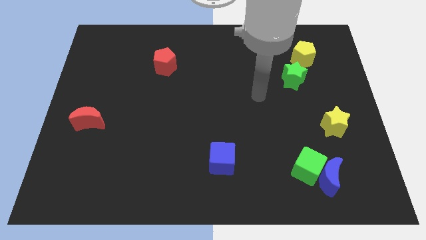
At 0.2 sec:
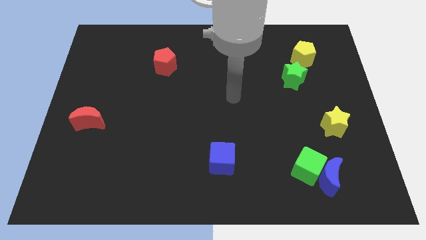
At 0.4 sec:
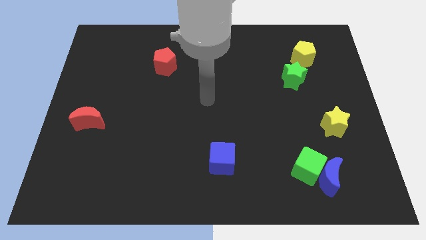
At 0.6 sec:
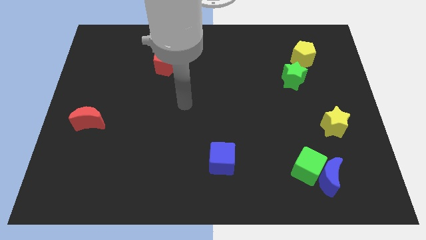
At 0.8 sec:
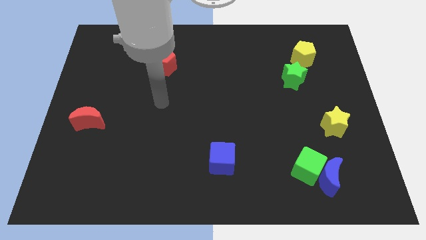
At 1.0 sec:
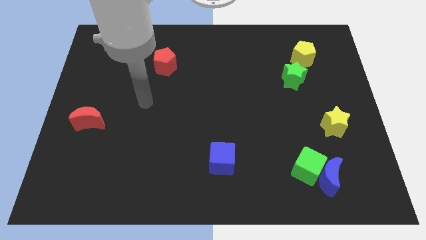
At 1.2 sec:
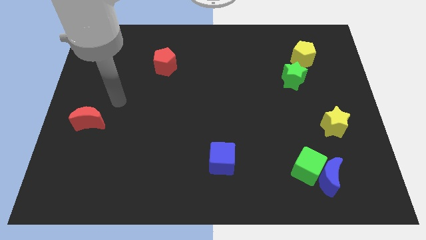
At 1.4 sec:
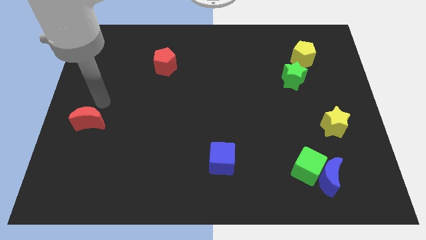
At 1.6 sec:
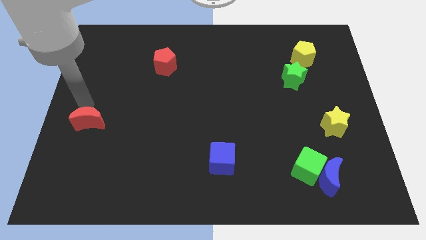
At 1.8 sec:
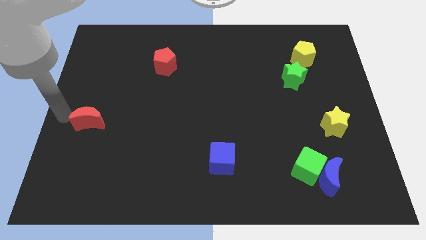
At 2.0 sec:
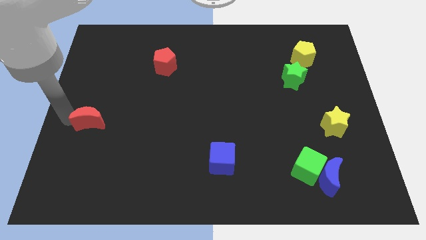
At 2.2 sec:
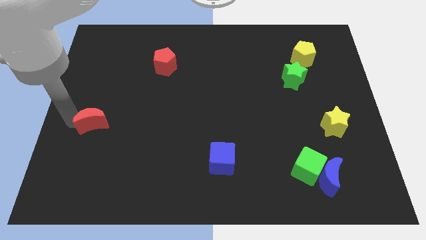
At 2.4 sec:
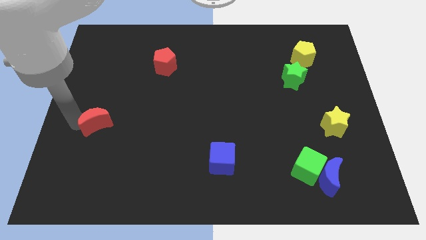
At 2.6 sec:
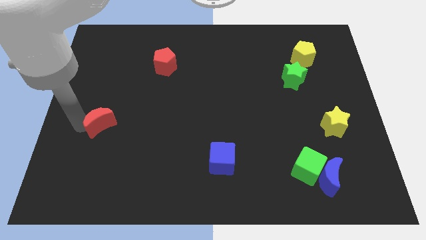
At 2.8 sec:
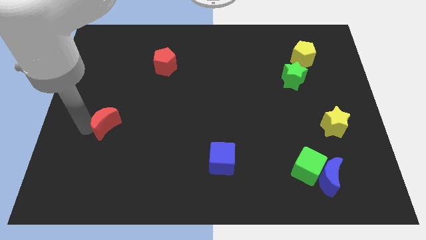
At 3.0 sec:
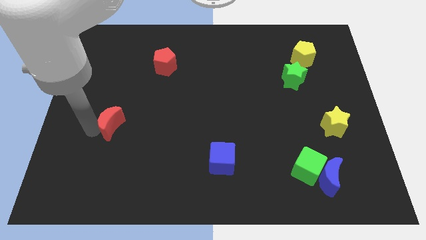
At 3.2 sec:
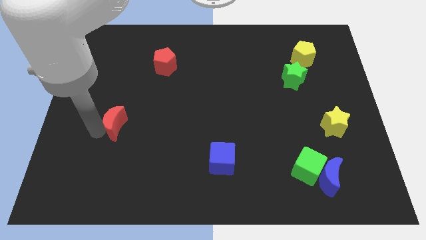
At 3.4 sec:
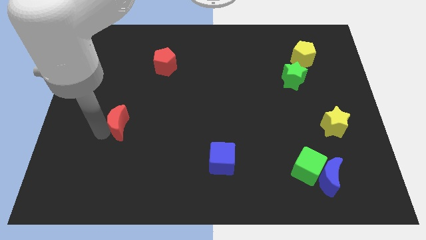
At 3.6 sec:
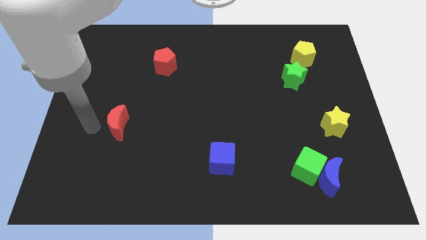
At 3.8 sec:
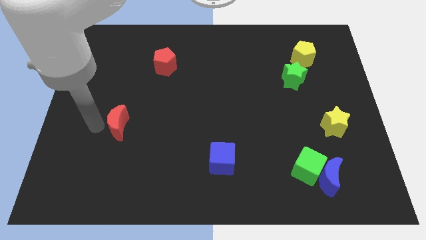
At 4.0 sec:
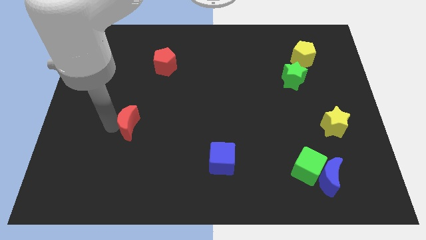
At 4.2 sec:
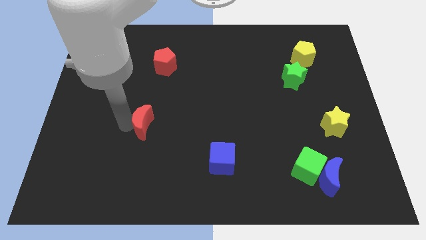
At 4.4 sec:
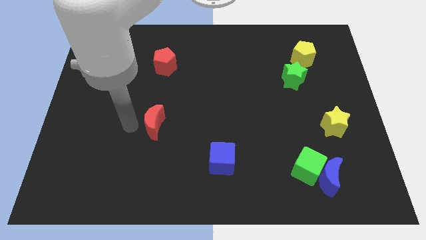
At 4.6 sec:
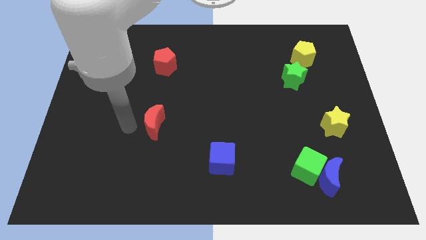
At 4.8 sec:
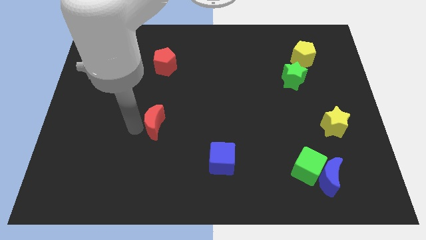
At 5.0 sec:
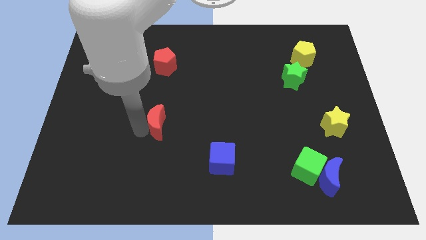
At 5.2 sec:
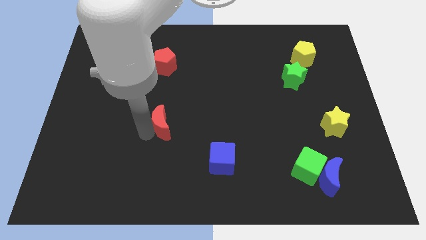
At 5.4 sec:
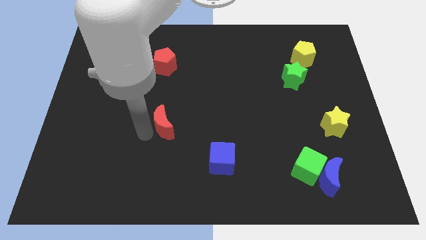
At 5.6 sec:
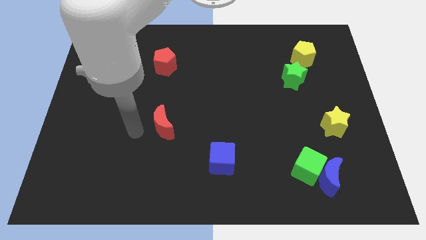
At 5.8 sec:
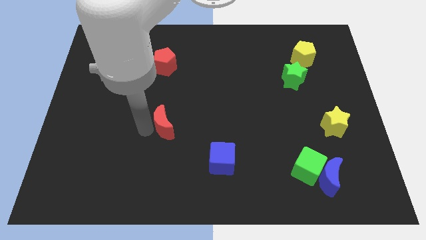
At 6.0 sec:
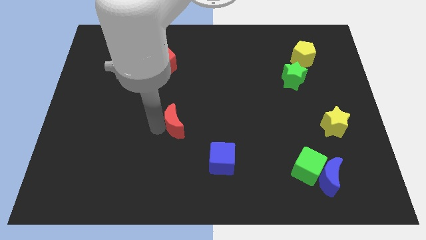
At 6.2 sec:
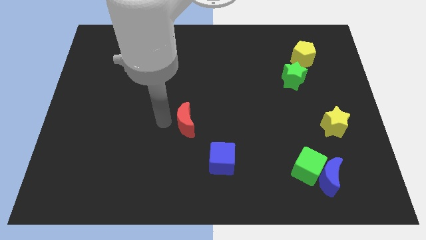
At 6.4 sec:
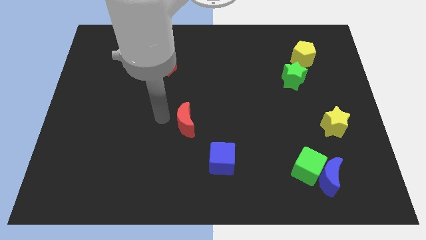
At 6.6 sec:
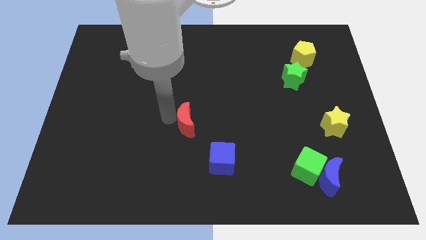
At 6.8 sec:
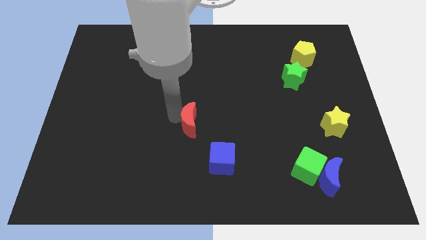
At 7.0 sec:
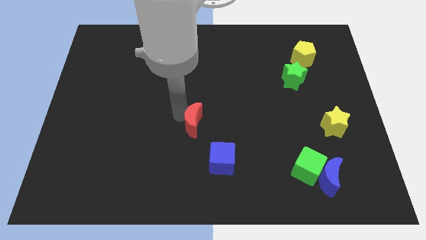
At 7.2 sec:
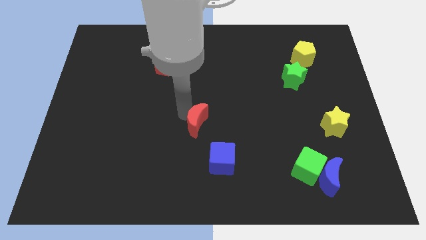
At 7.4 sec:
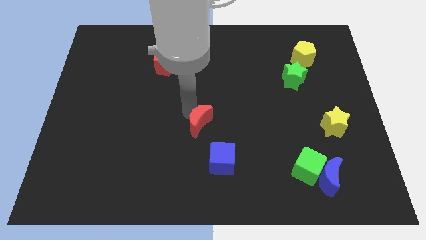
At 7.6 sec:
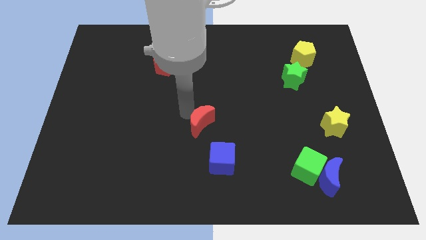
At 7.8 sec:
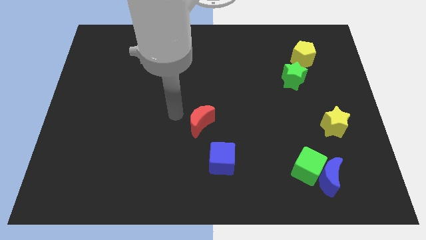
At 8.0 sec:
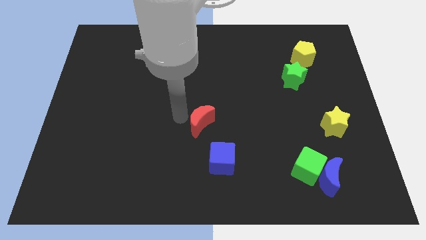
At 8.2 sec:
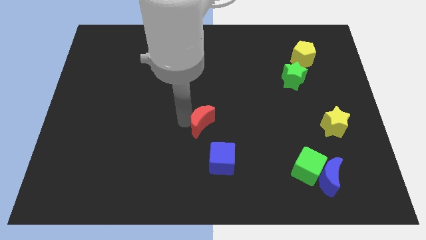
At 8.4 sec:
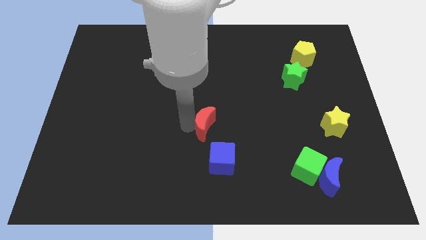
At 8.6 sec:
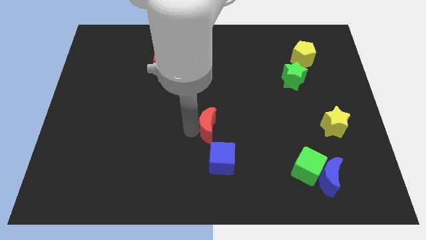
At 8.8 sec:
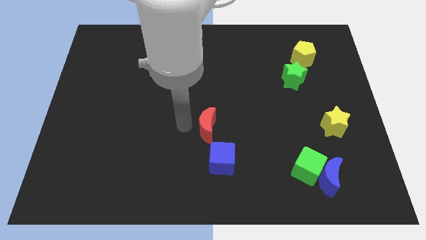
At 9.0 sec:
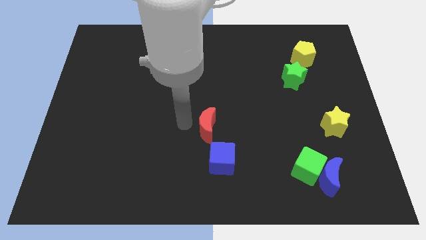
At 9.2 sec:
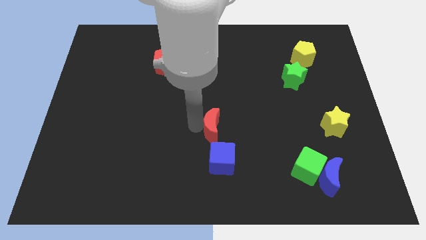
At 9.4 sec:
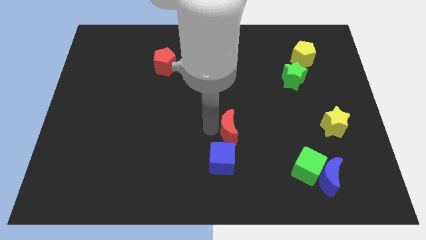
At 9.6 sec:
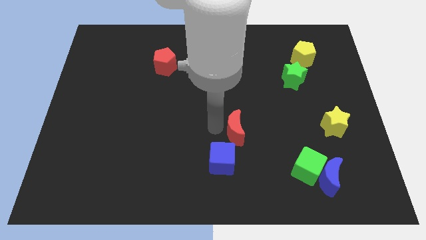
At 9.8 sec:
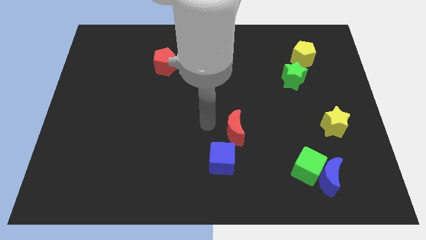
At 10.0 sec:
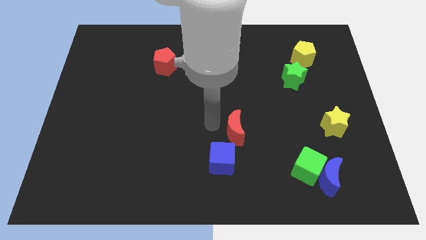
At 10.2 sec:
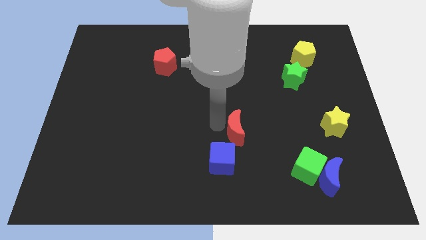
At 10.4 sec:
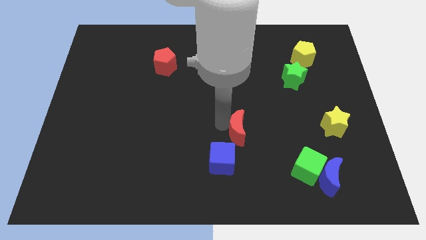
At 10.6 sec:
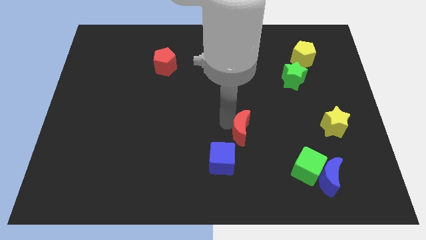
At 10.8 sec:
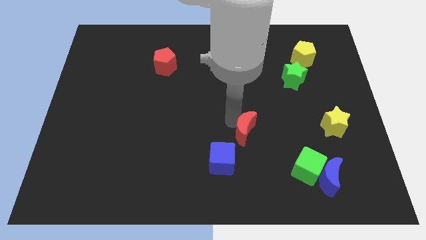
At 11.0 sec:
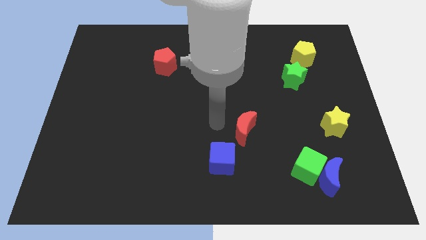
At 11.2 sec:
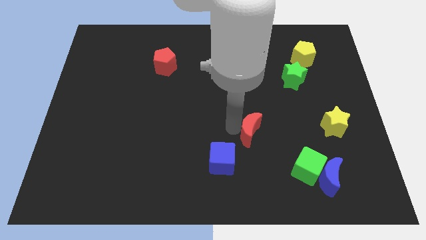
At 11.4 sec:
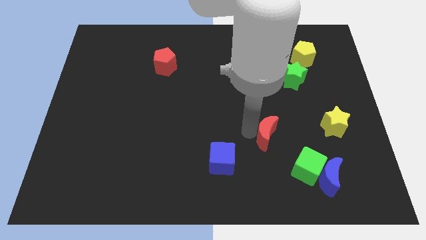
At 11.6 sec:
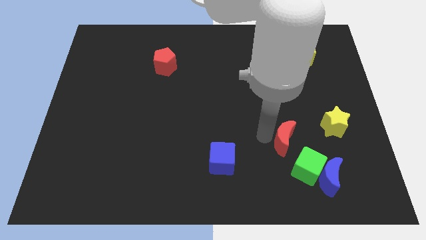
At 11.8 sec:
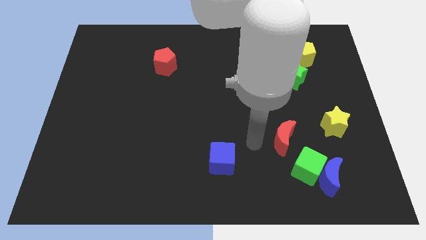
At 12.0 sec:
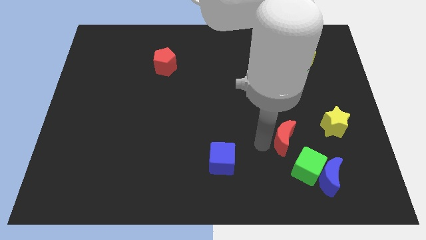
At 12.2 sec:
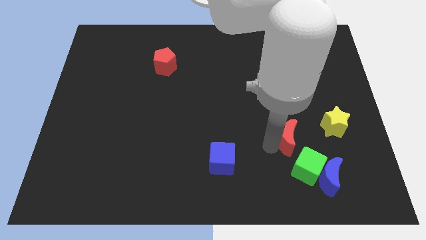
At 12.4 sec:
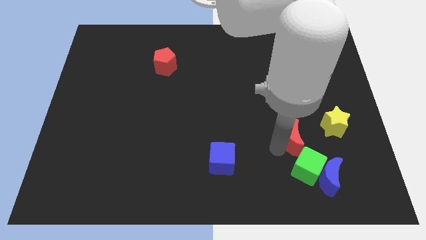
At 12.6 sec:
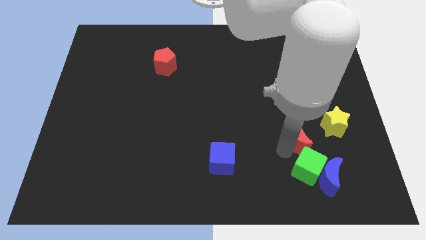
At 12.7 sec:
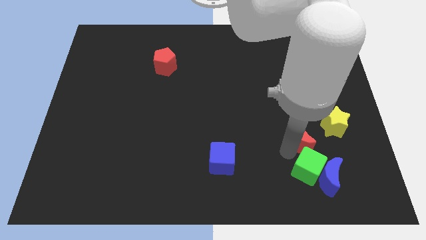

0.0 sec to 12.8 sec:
put the red moon above the blue moon
